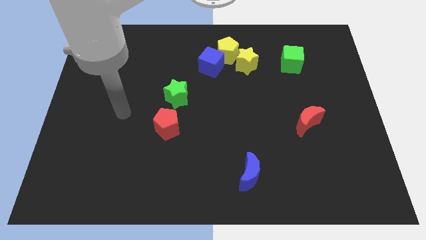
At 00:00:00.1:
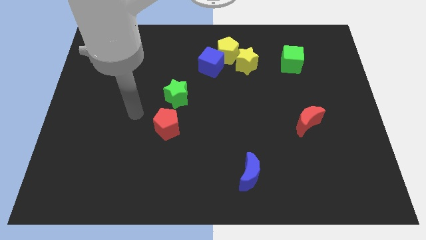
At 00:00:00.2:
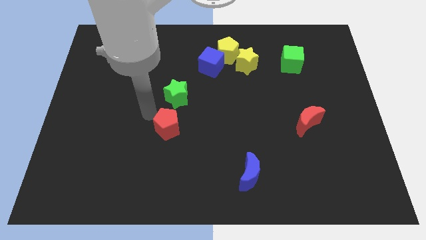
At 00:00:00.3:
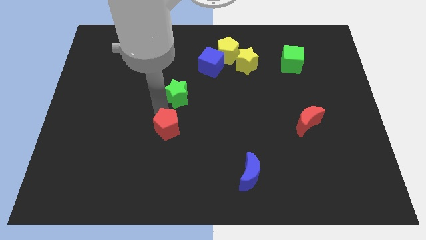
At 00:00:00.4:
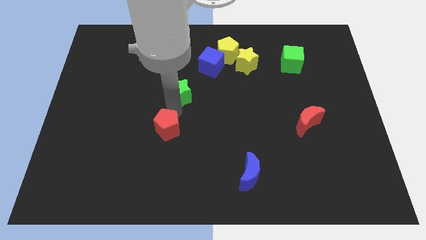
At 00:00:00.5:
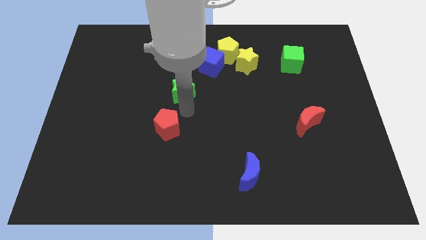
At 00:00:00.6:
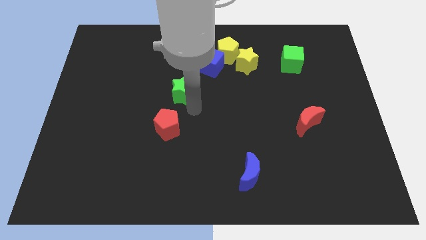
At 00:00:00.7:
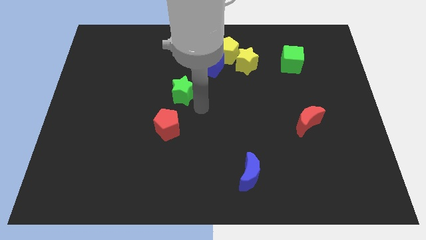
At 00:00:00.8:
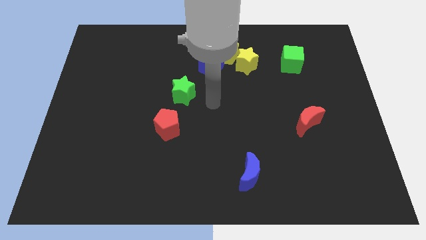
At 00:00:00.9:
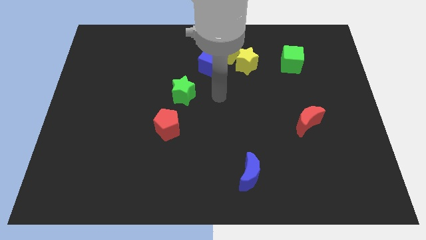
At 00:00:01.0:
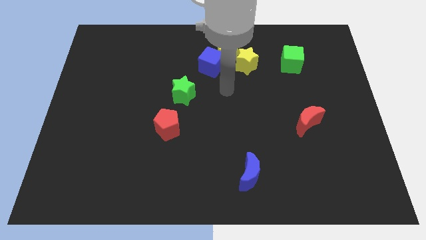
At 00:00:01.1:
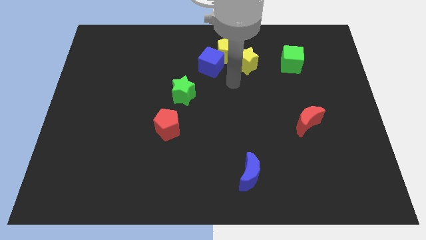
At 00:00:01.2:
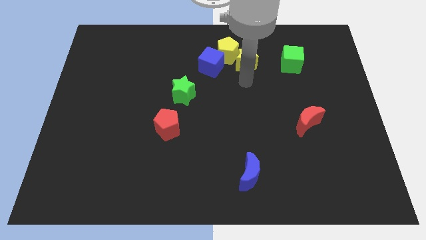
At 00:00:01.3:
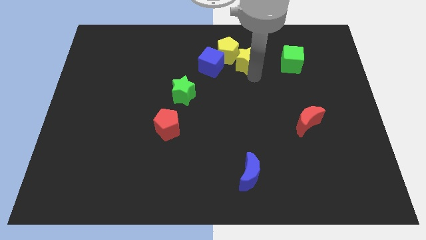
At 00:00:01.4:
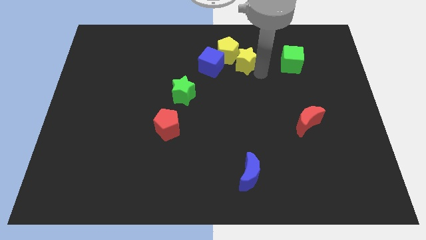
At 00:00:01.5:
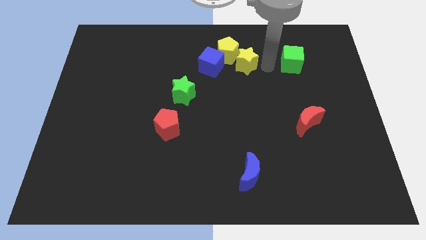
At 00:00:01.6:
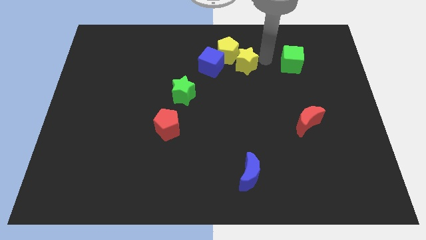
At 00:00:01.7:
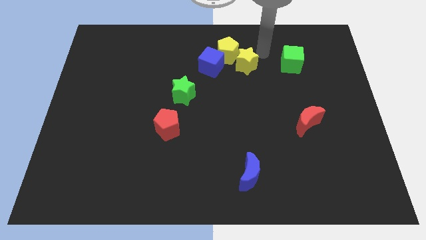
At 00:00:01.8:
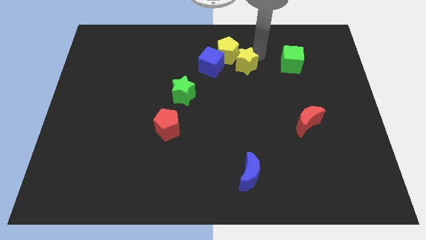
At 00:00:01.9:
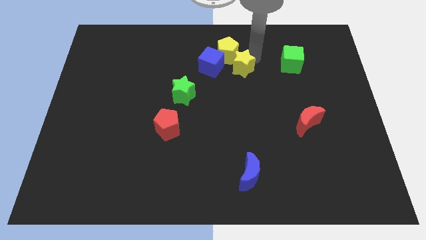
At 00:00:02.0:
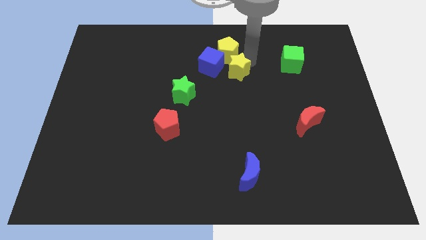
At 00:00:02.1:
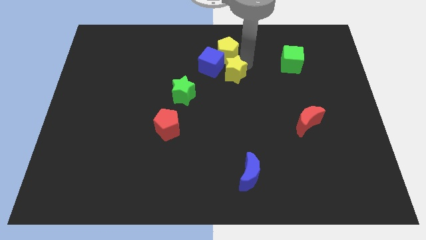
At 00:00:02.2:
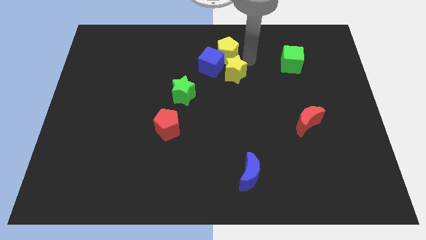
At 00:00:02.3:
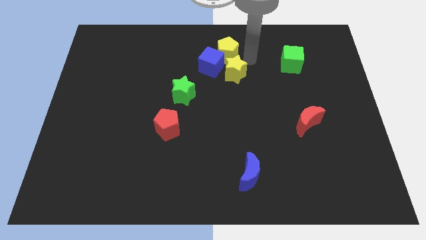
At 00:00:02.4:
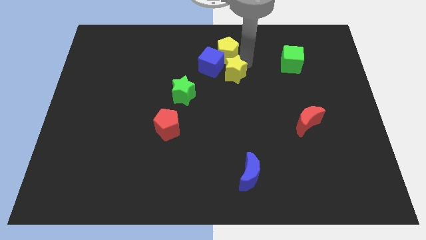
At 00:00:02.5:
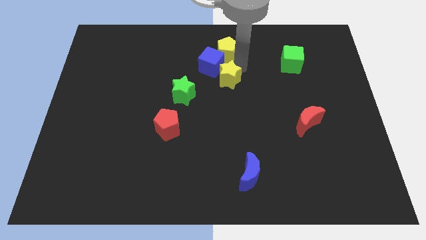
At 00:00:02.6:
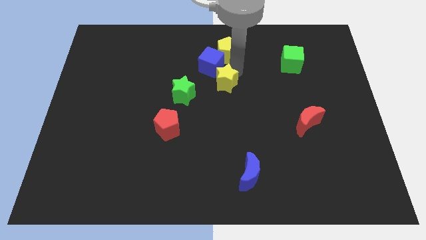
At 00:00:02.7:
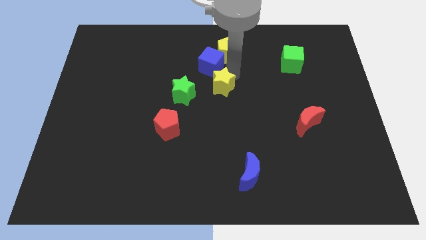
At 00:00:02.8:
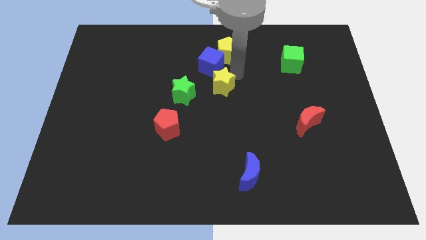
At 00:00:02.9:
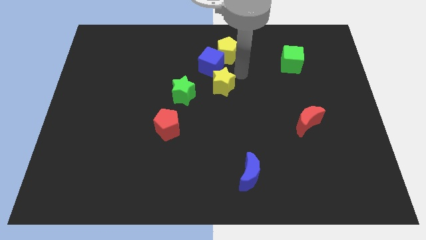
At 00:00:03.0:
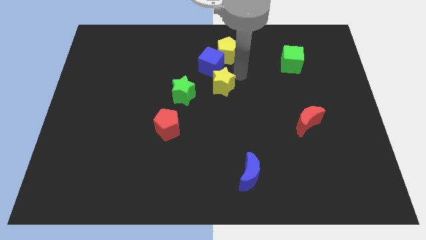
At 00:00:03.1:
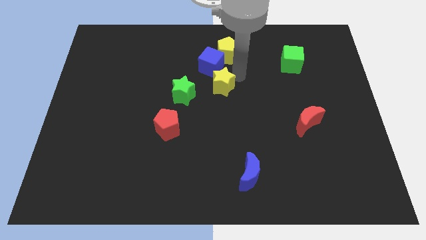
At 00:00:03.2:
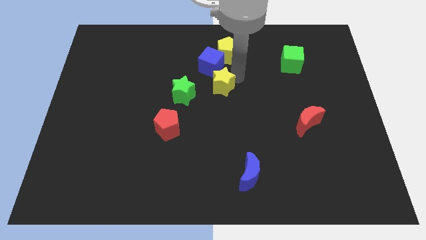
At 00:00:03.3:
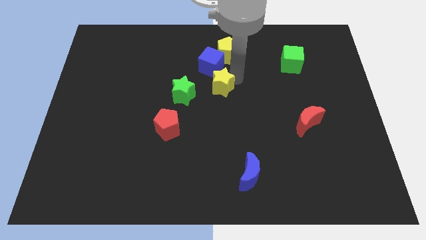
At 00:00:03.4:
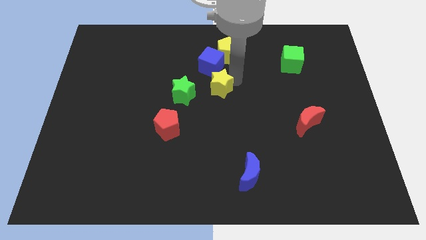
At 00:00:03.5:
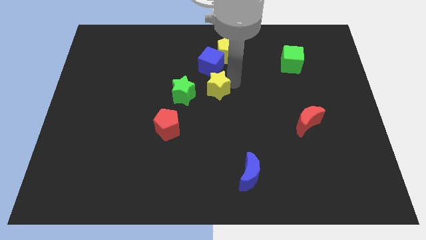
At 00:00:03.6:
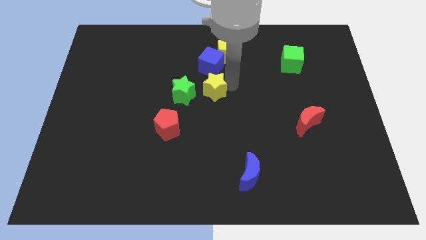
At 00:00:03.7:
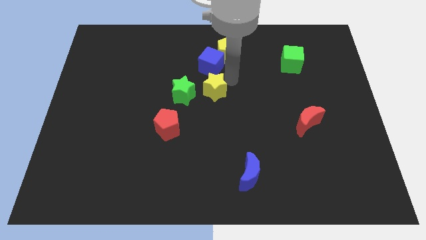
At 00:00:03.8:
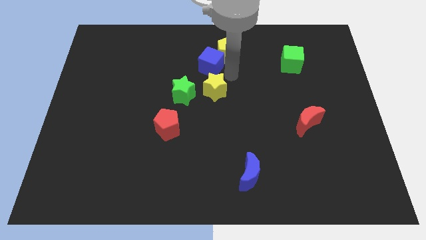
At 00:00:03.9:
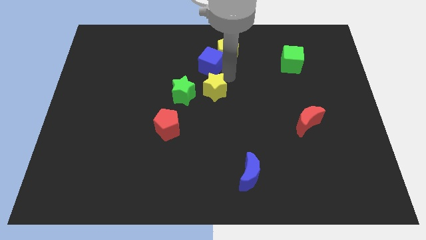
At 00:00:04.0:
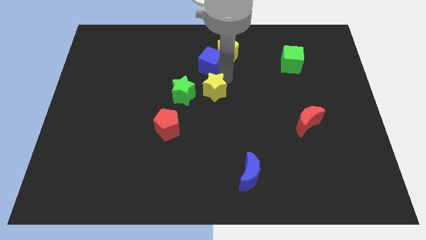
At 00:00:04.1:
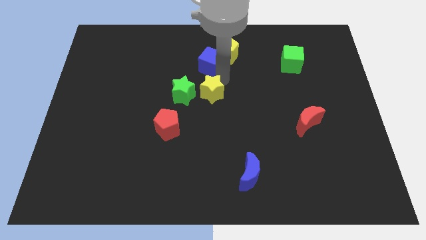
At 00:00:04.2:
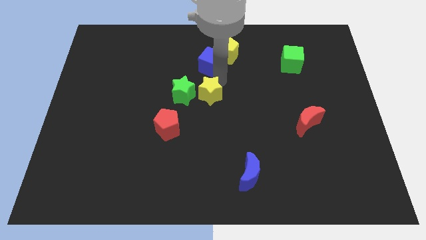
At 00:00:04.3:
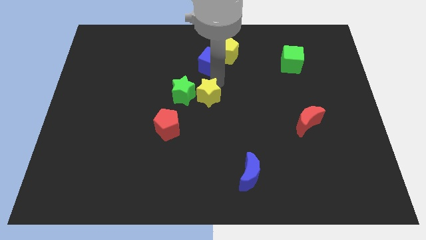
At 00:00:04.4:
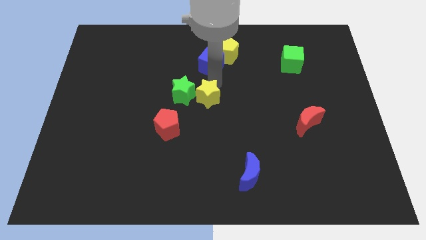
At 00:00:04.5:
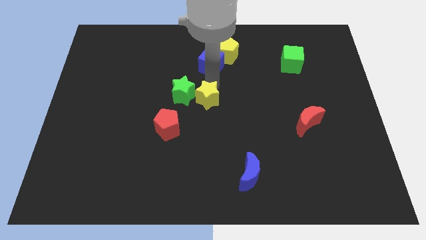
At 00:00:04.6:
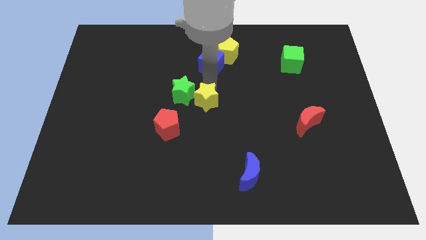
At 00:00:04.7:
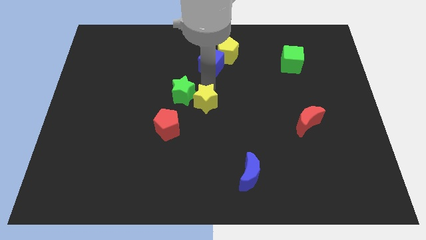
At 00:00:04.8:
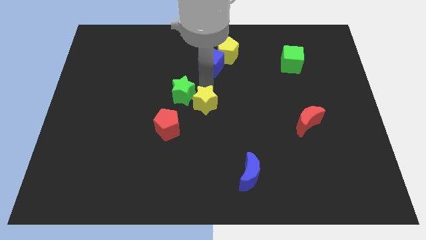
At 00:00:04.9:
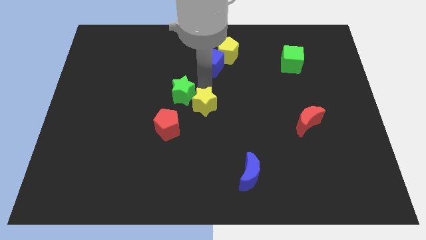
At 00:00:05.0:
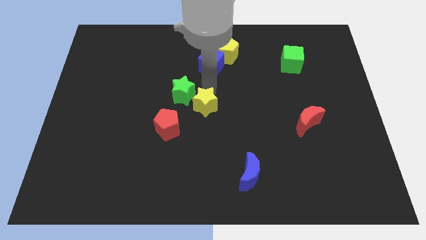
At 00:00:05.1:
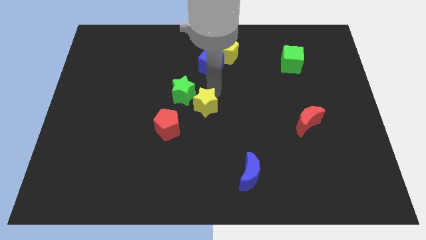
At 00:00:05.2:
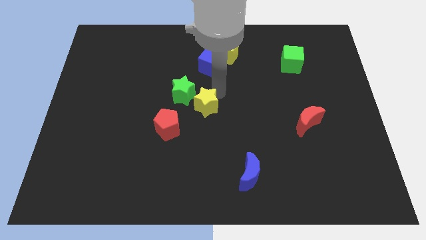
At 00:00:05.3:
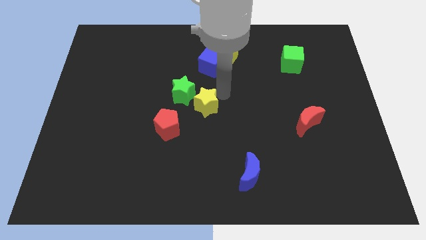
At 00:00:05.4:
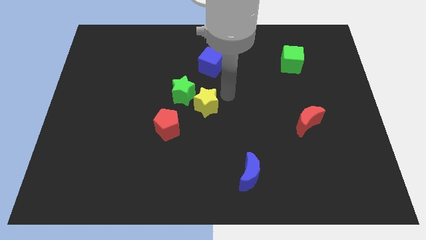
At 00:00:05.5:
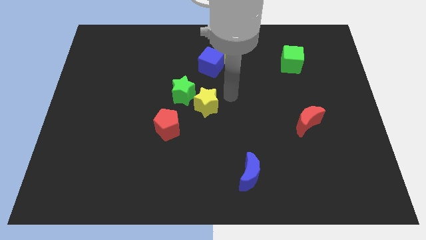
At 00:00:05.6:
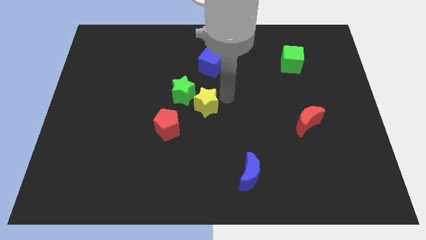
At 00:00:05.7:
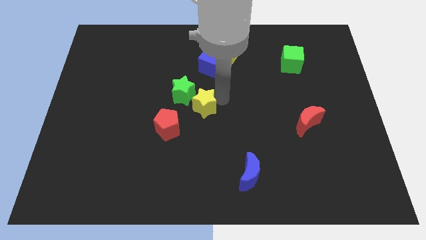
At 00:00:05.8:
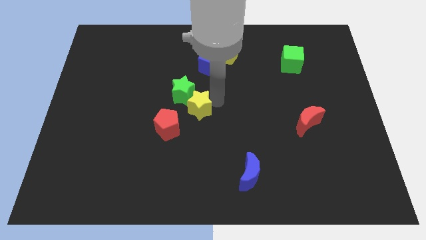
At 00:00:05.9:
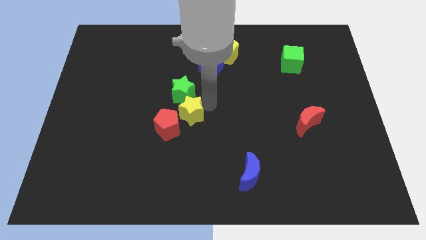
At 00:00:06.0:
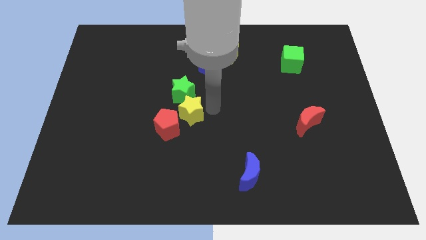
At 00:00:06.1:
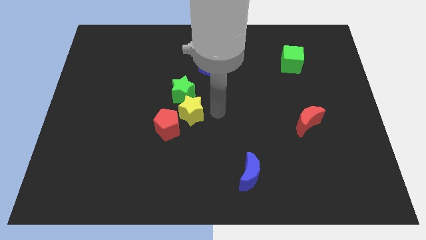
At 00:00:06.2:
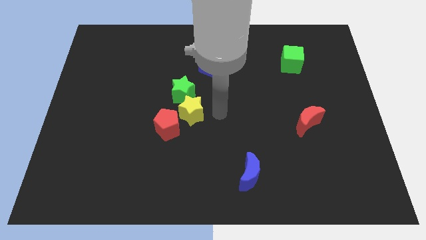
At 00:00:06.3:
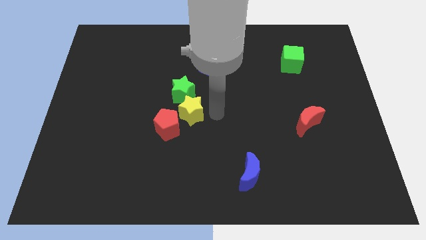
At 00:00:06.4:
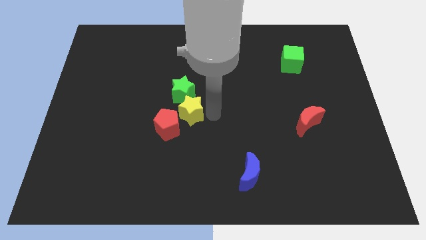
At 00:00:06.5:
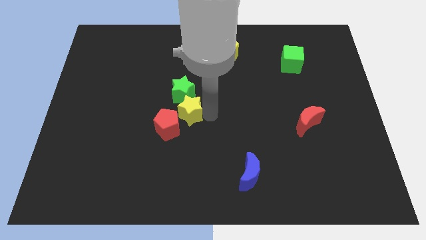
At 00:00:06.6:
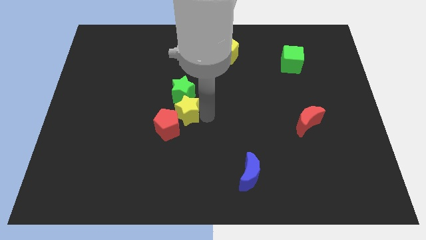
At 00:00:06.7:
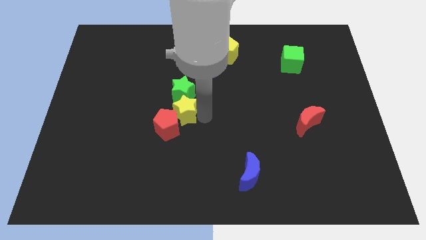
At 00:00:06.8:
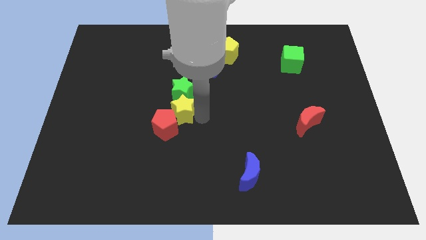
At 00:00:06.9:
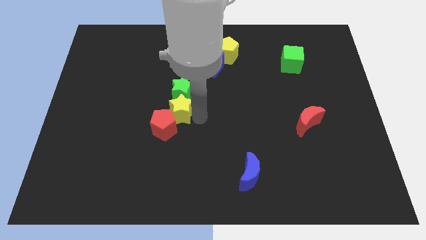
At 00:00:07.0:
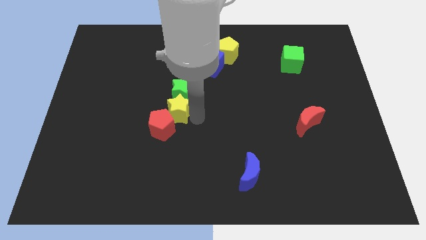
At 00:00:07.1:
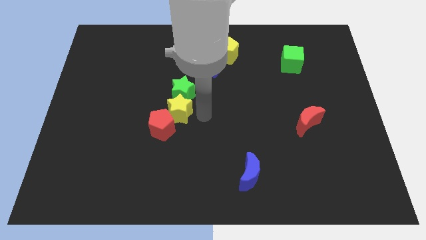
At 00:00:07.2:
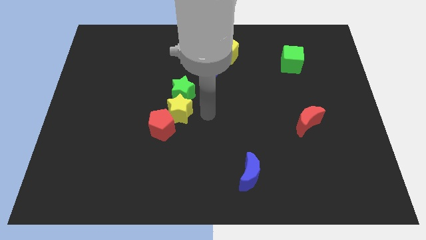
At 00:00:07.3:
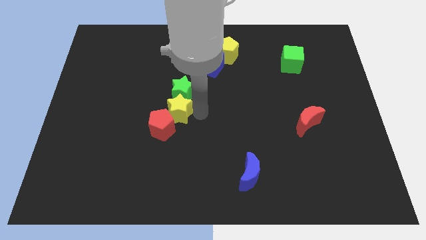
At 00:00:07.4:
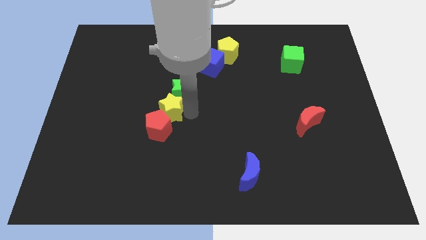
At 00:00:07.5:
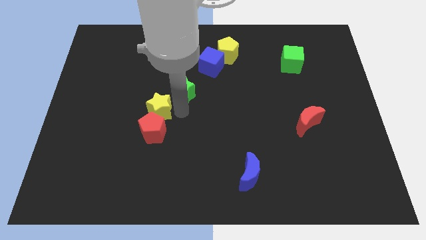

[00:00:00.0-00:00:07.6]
push the yellow star to the top left of the red pentagon
